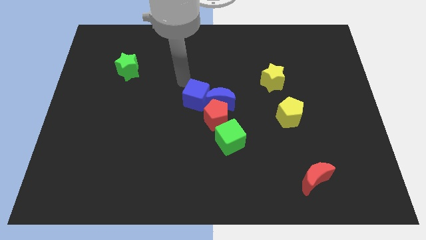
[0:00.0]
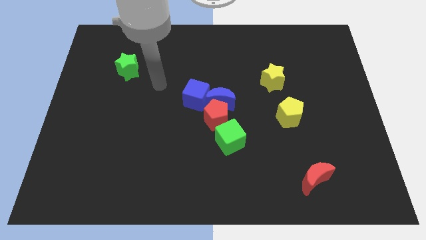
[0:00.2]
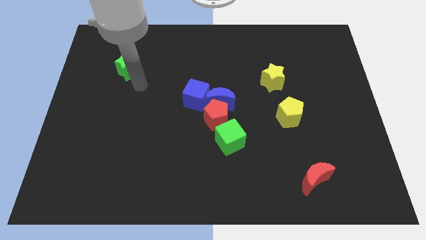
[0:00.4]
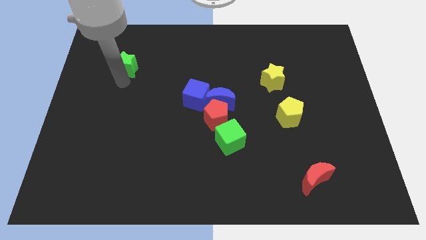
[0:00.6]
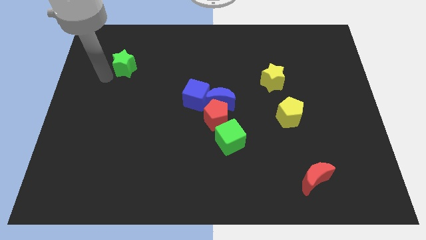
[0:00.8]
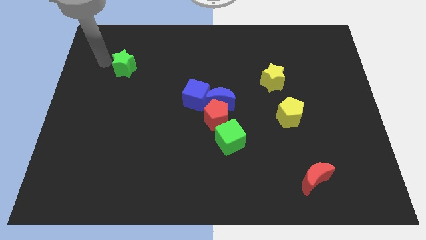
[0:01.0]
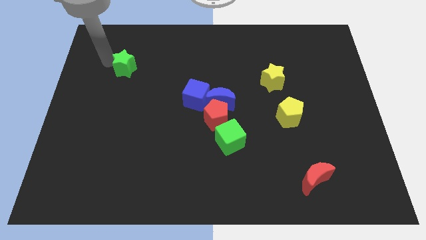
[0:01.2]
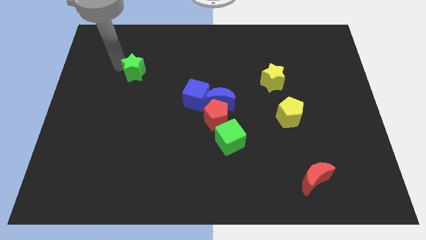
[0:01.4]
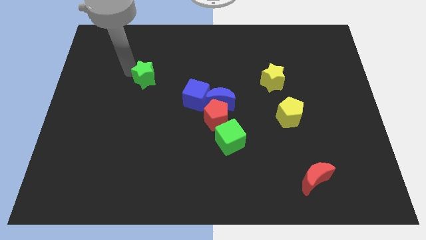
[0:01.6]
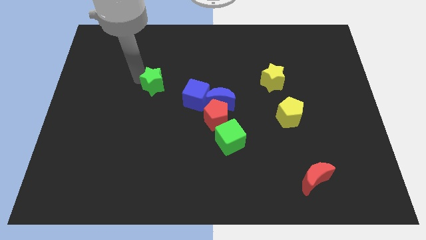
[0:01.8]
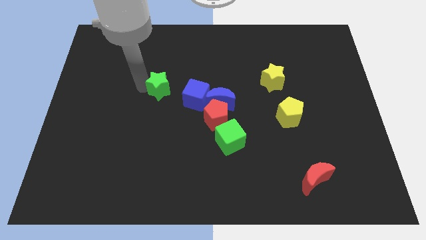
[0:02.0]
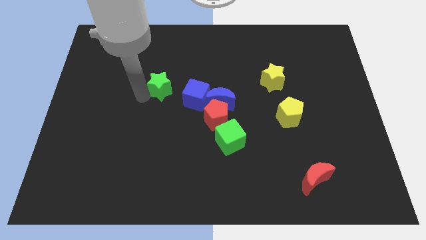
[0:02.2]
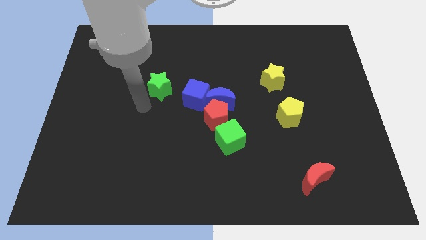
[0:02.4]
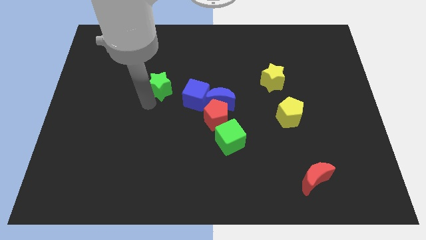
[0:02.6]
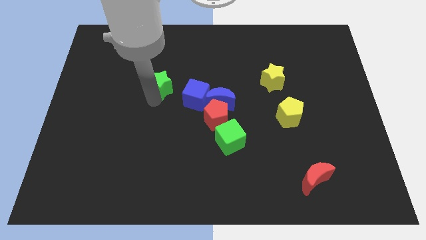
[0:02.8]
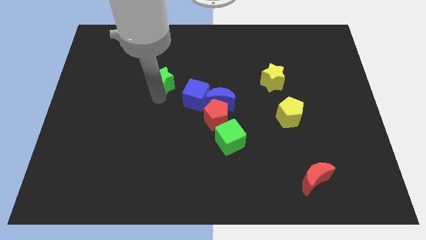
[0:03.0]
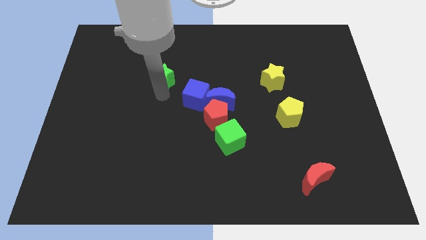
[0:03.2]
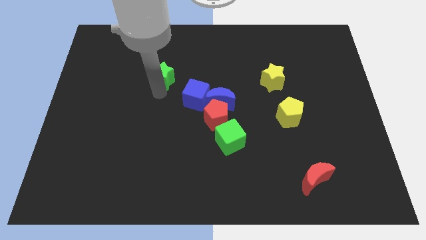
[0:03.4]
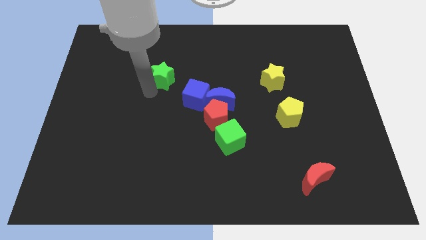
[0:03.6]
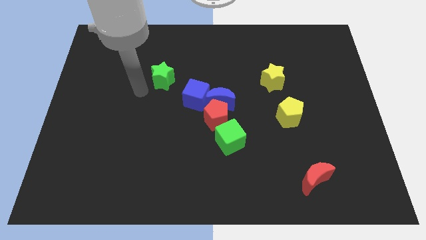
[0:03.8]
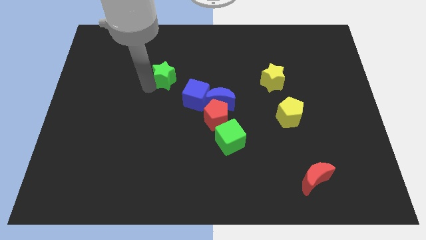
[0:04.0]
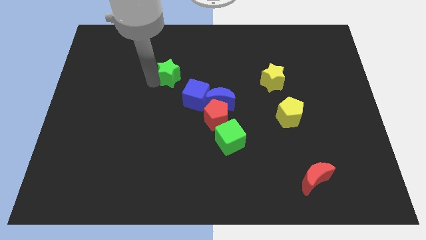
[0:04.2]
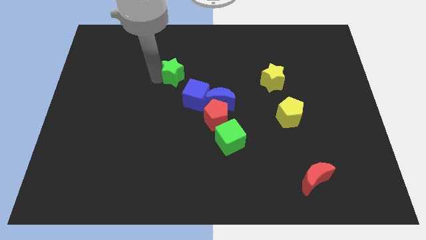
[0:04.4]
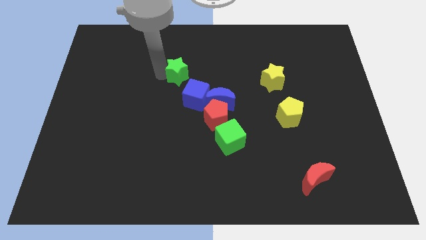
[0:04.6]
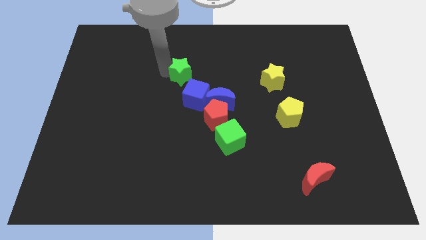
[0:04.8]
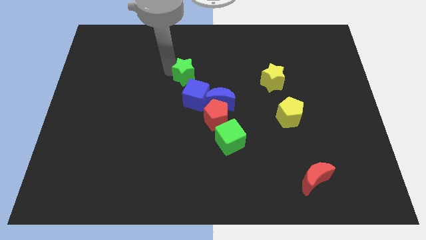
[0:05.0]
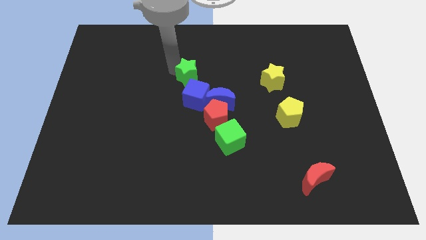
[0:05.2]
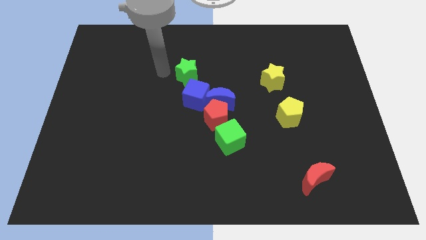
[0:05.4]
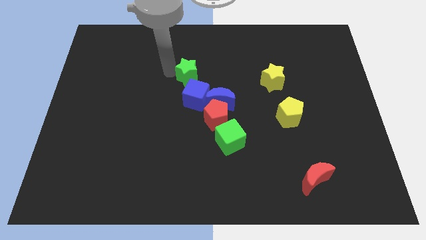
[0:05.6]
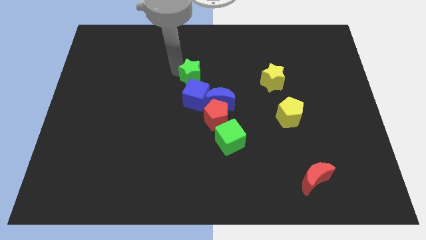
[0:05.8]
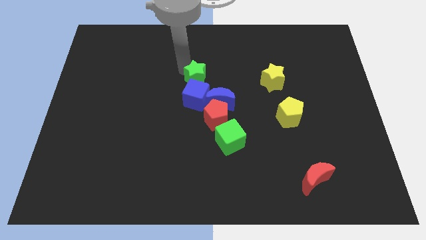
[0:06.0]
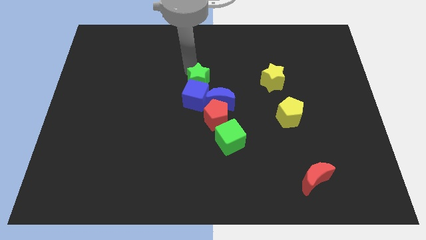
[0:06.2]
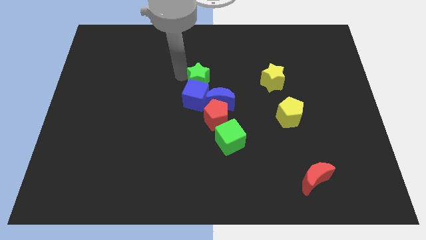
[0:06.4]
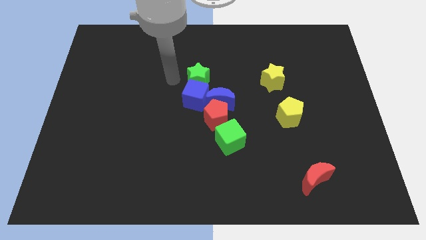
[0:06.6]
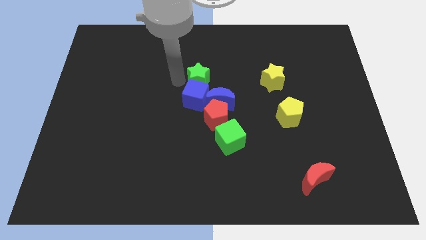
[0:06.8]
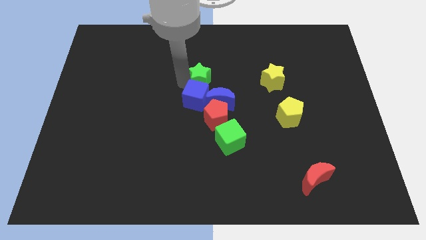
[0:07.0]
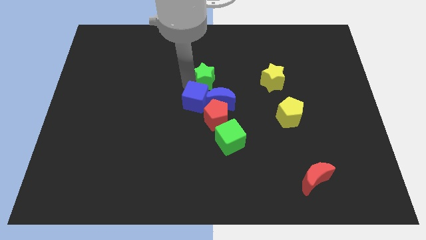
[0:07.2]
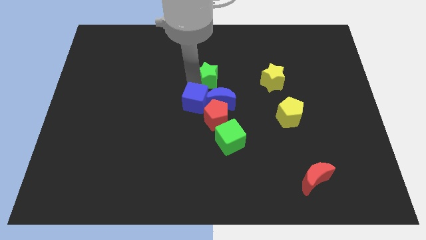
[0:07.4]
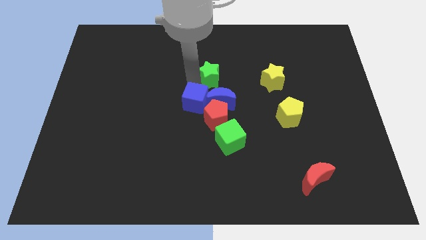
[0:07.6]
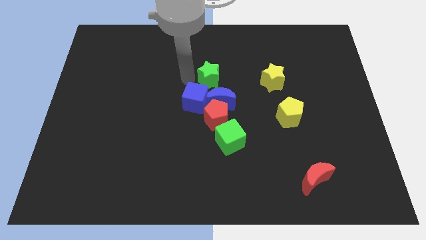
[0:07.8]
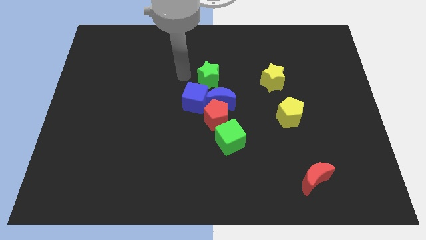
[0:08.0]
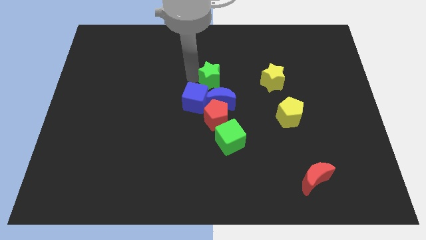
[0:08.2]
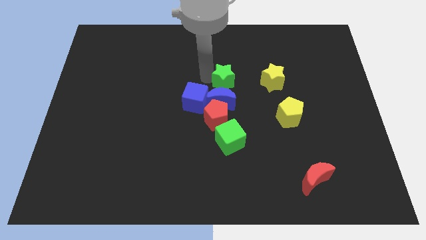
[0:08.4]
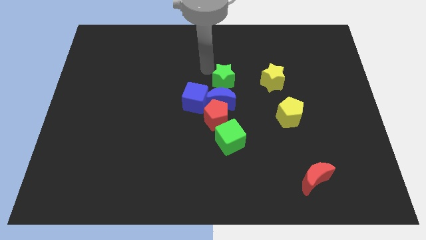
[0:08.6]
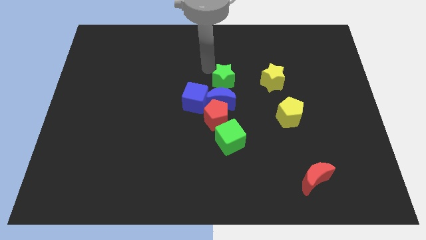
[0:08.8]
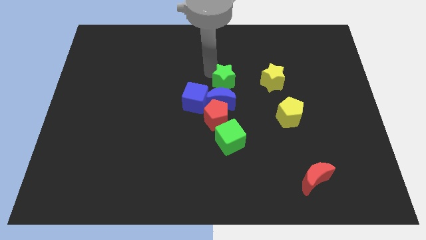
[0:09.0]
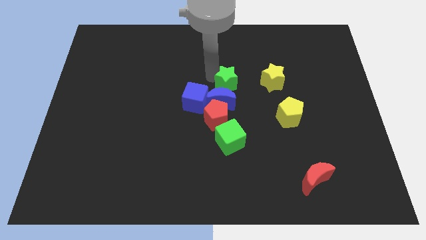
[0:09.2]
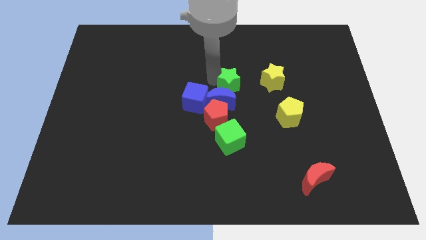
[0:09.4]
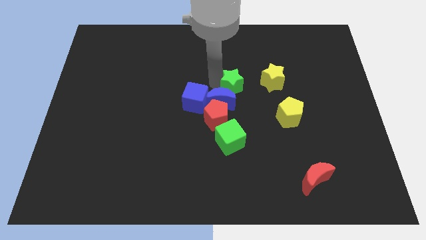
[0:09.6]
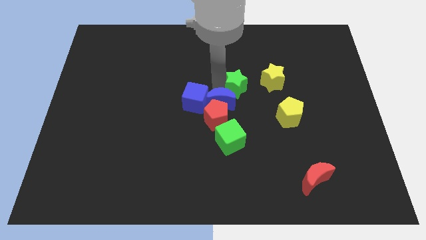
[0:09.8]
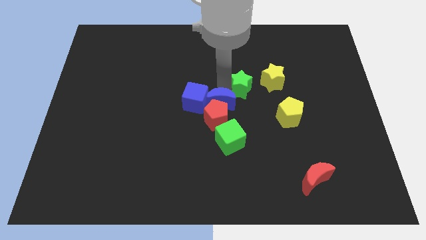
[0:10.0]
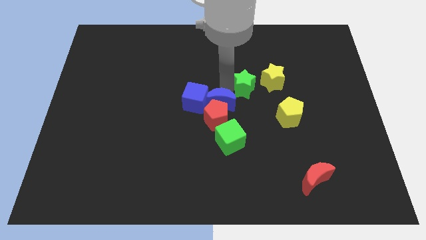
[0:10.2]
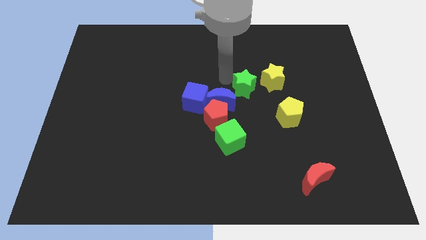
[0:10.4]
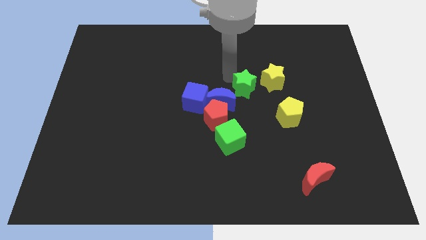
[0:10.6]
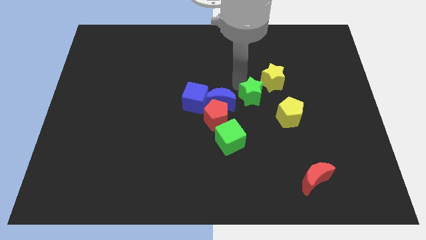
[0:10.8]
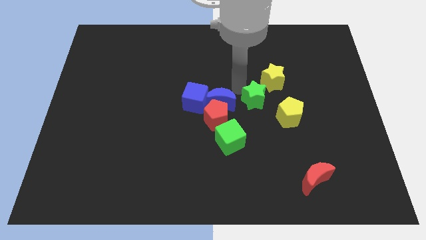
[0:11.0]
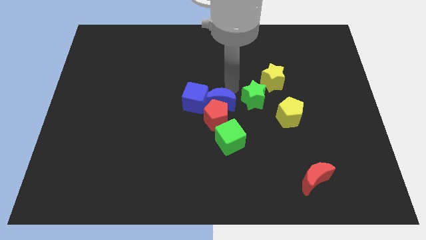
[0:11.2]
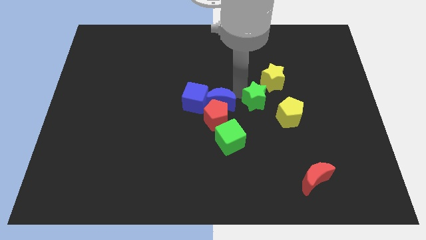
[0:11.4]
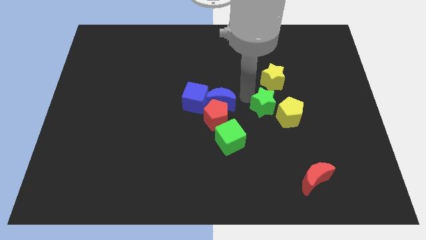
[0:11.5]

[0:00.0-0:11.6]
put the green star close to the yellow pentagon

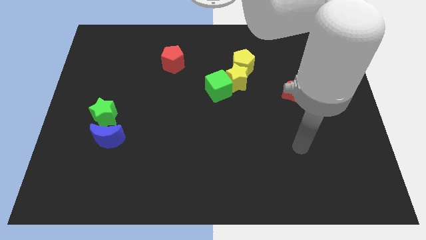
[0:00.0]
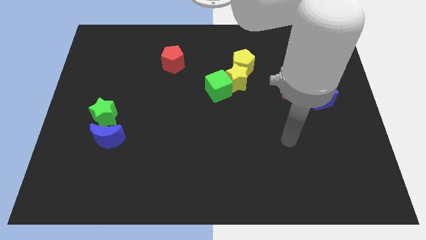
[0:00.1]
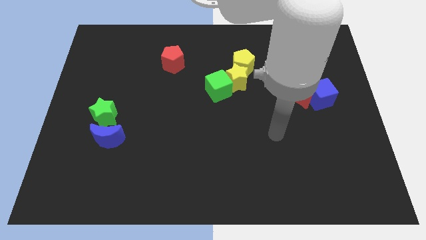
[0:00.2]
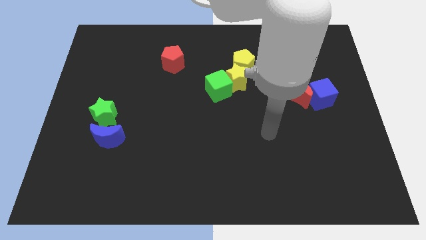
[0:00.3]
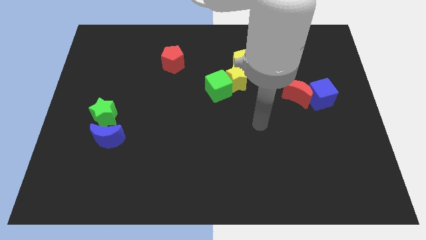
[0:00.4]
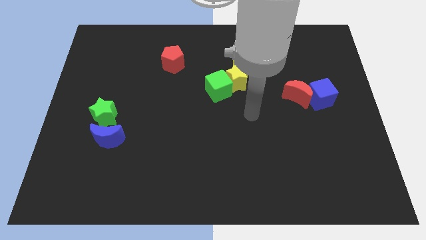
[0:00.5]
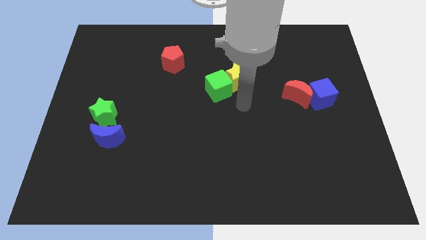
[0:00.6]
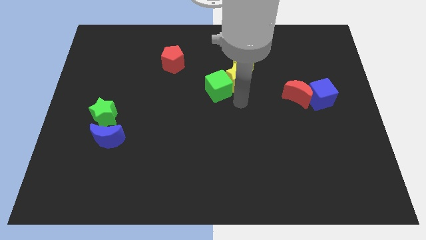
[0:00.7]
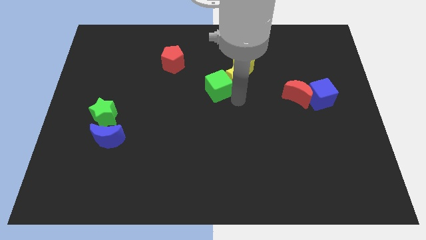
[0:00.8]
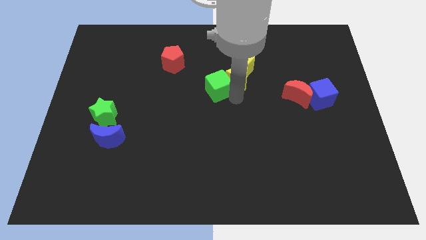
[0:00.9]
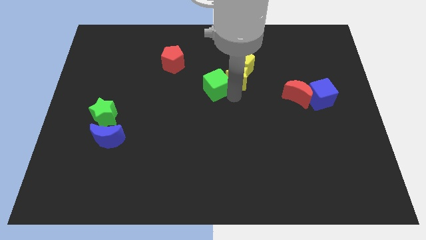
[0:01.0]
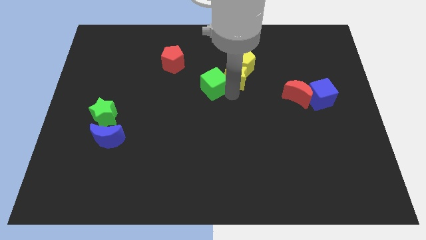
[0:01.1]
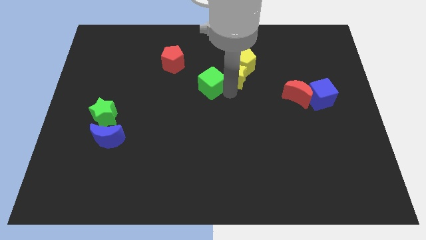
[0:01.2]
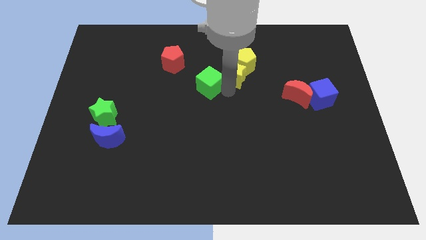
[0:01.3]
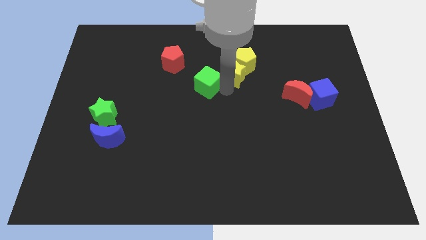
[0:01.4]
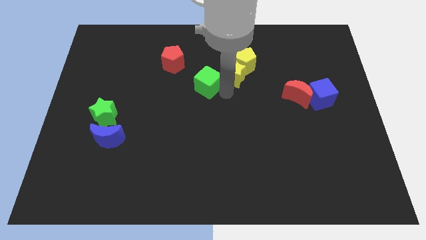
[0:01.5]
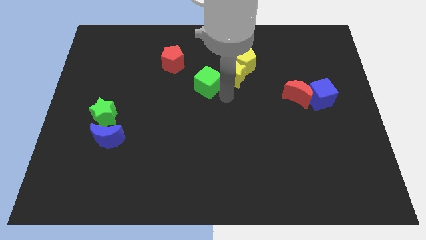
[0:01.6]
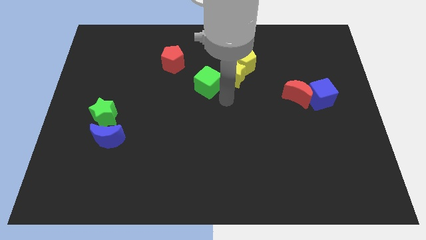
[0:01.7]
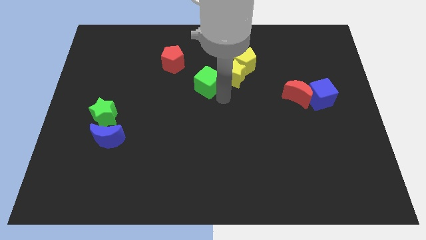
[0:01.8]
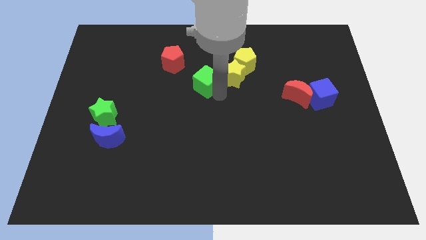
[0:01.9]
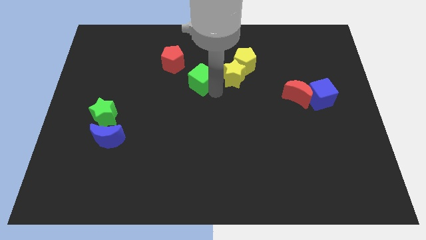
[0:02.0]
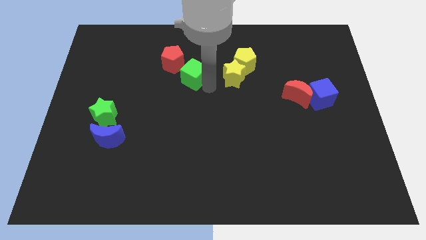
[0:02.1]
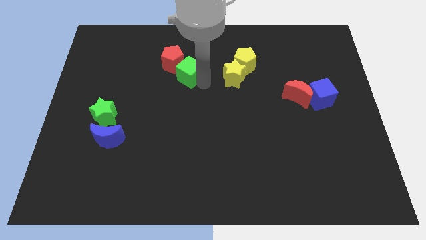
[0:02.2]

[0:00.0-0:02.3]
push the green cube next to the red pentagon

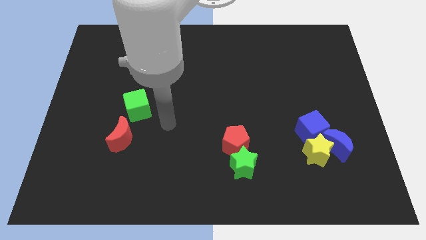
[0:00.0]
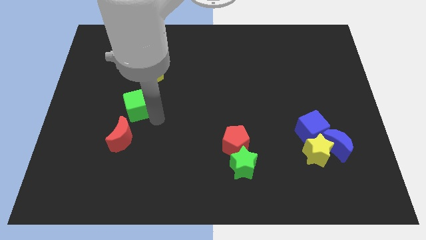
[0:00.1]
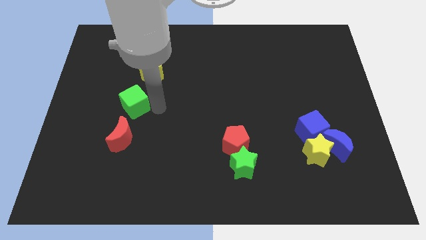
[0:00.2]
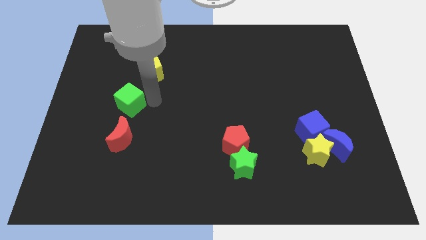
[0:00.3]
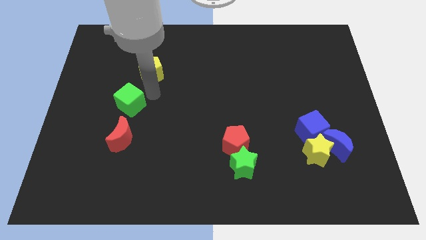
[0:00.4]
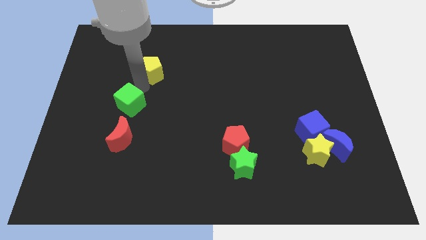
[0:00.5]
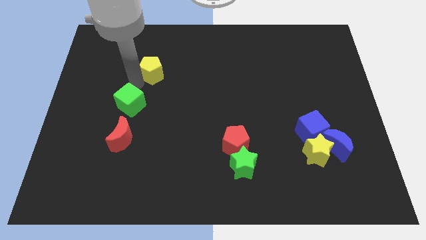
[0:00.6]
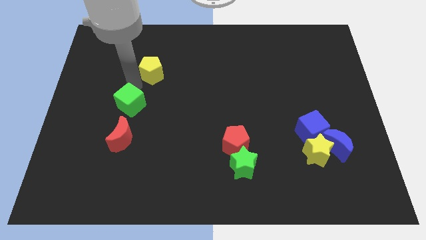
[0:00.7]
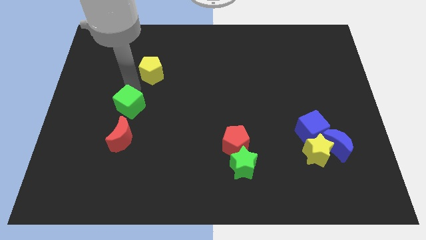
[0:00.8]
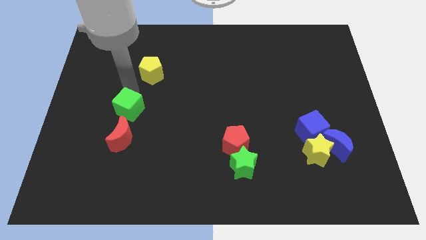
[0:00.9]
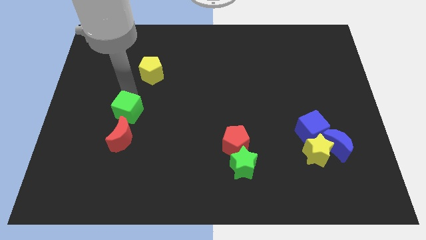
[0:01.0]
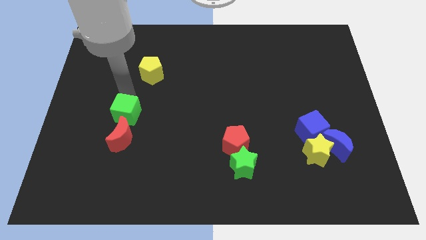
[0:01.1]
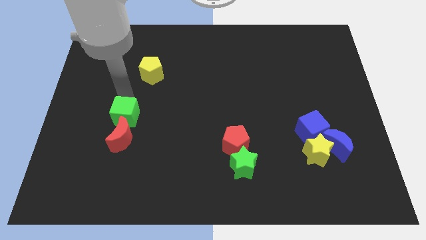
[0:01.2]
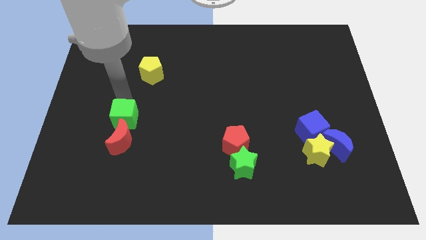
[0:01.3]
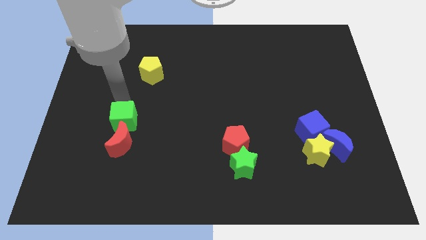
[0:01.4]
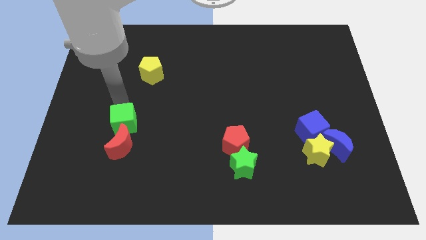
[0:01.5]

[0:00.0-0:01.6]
slide the green cube to the red moon
